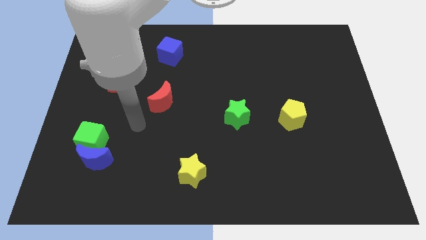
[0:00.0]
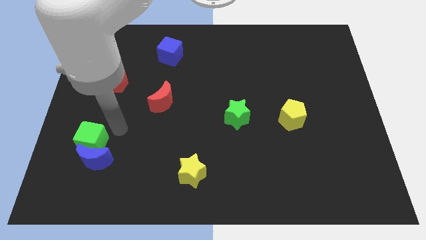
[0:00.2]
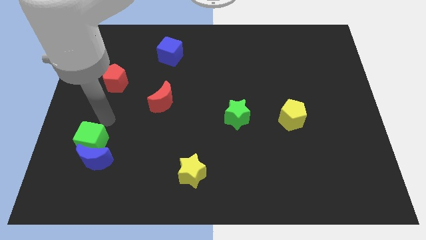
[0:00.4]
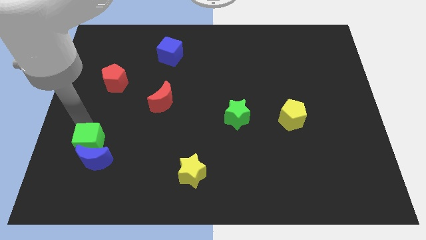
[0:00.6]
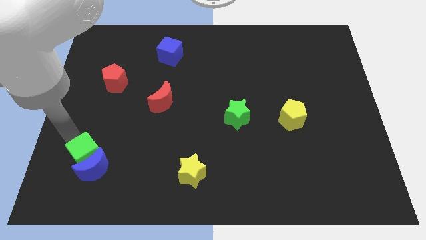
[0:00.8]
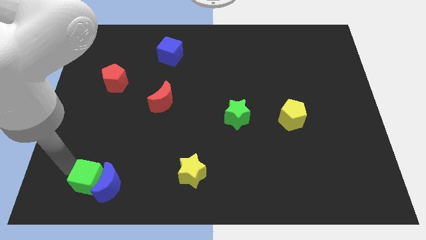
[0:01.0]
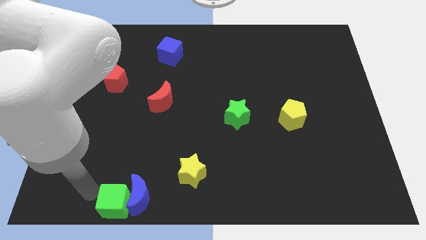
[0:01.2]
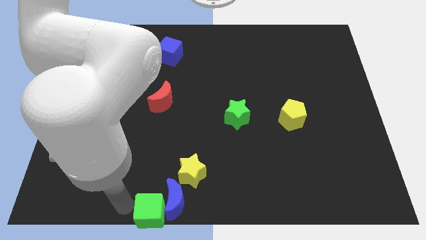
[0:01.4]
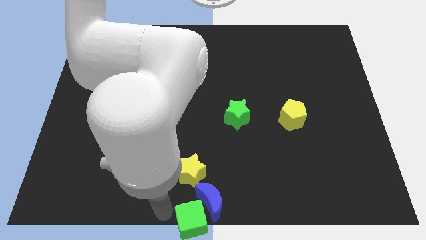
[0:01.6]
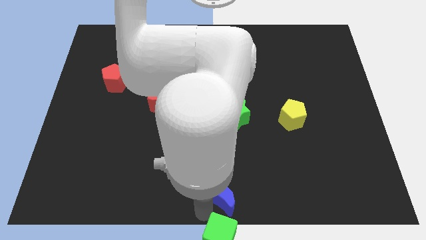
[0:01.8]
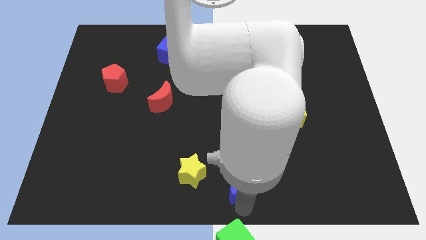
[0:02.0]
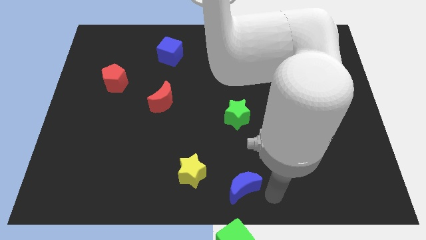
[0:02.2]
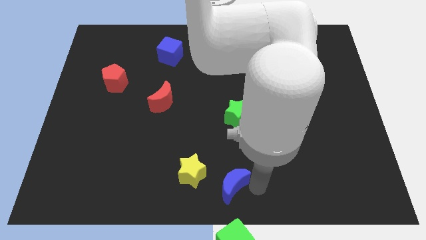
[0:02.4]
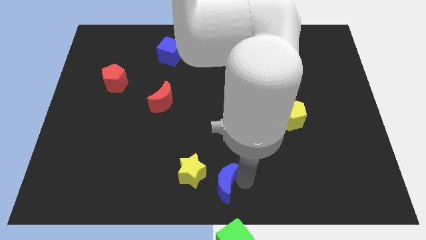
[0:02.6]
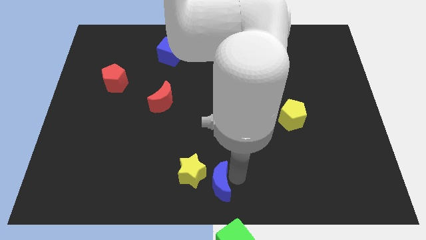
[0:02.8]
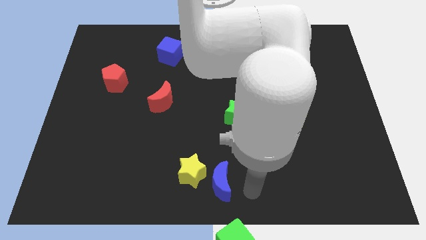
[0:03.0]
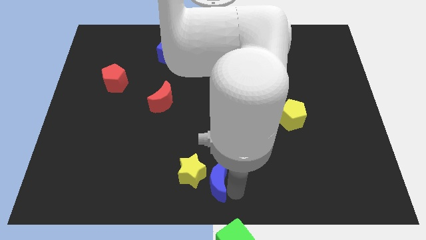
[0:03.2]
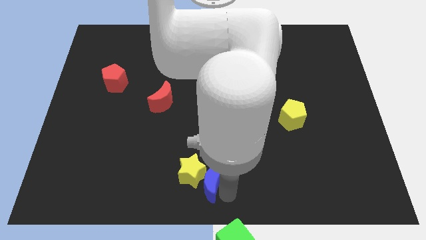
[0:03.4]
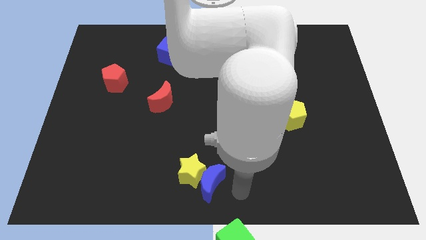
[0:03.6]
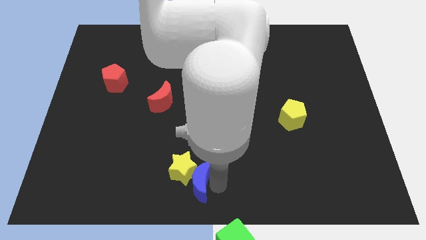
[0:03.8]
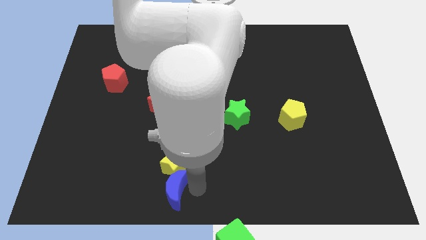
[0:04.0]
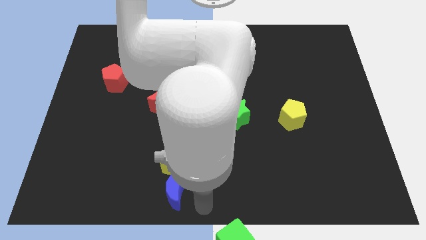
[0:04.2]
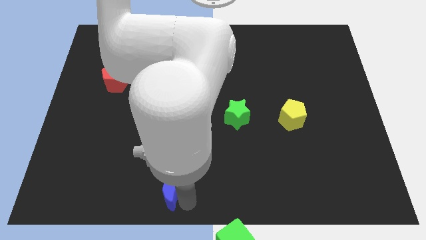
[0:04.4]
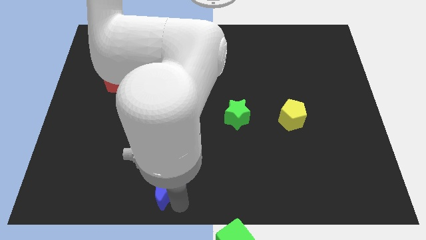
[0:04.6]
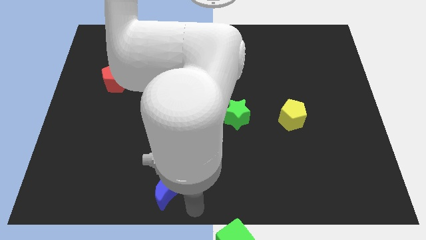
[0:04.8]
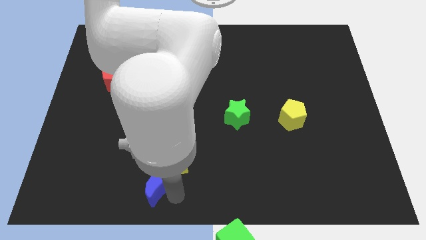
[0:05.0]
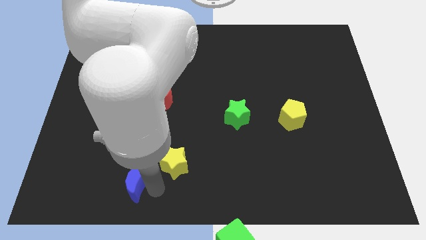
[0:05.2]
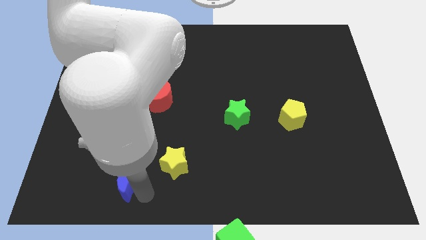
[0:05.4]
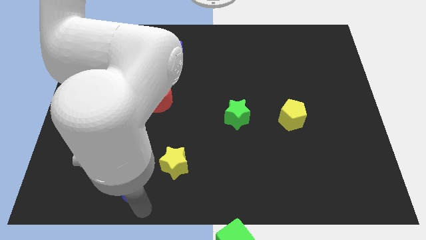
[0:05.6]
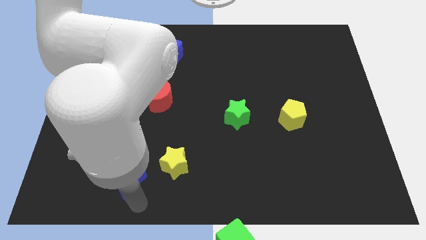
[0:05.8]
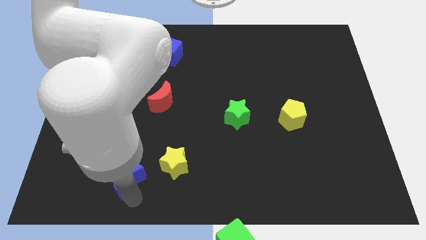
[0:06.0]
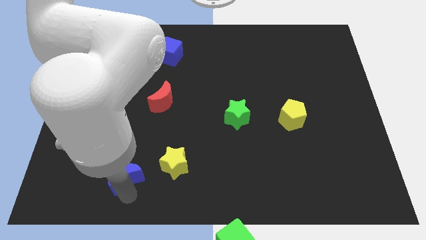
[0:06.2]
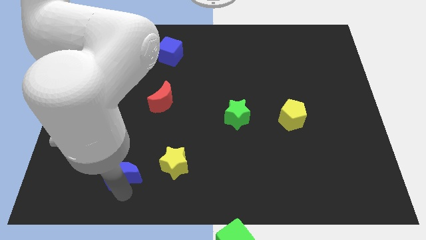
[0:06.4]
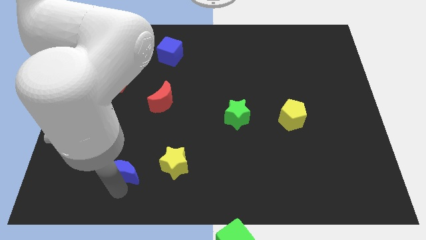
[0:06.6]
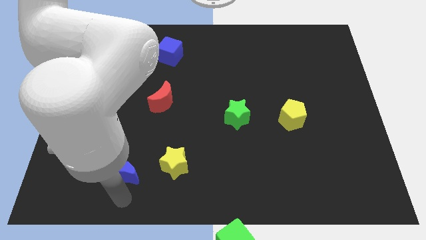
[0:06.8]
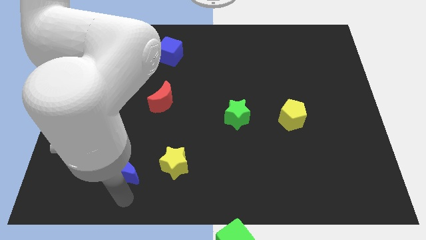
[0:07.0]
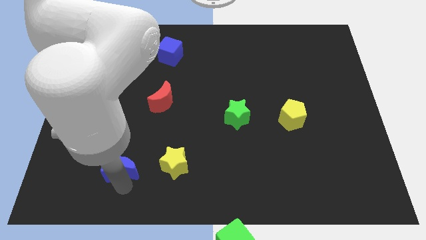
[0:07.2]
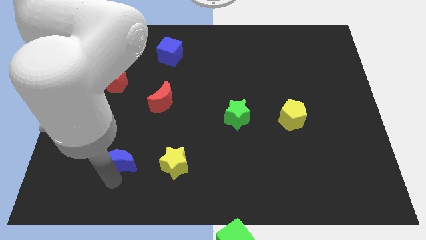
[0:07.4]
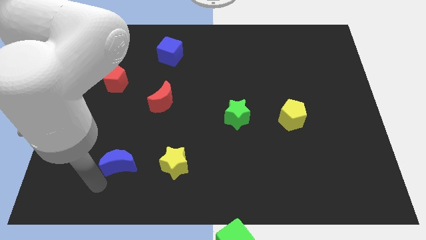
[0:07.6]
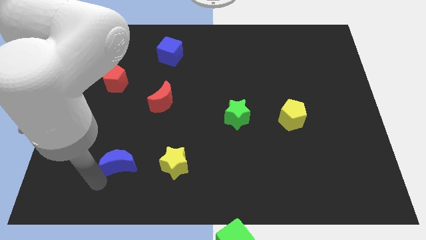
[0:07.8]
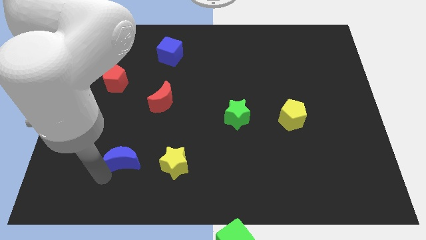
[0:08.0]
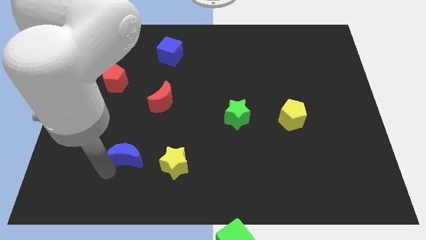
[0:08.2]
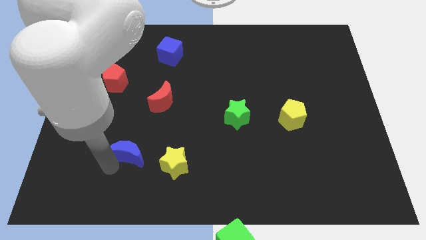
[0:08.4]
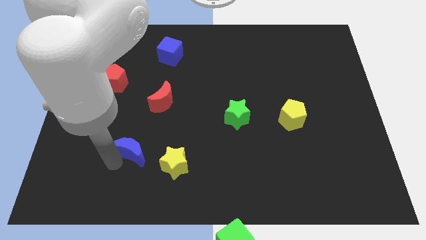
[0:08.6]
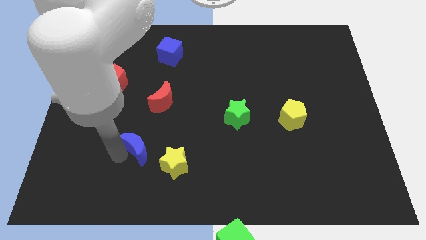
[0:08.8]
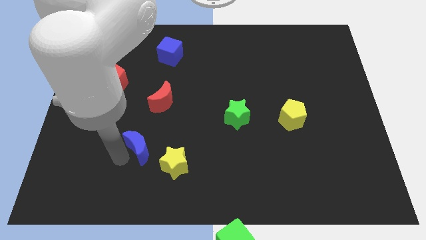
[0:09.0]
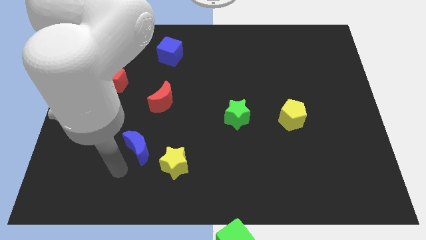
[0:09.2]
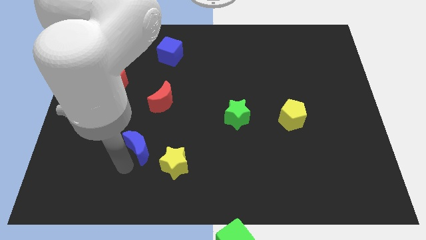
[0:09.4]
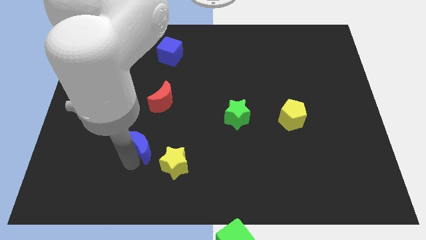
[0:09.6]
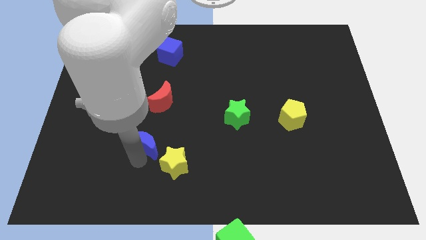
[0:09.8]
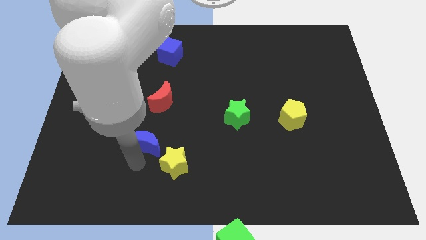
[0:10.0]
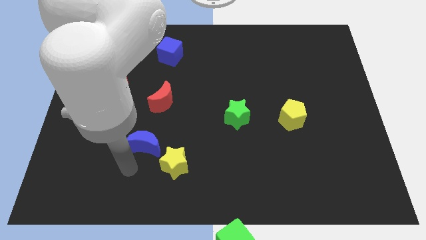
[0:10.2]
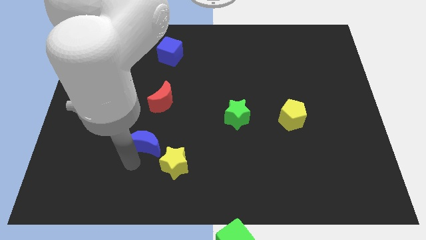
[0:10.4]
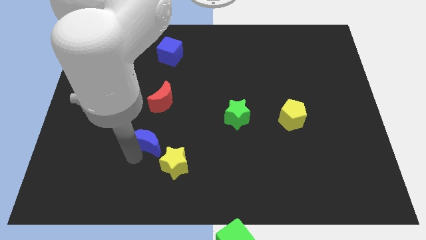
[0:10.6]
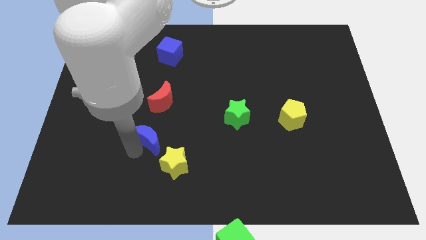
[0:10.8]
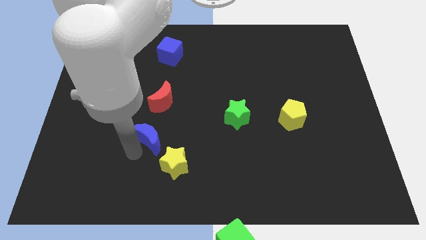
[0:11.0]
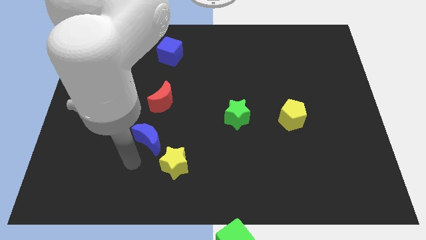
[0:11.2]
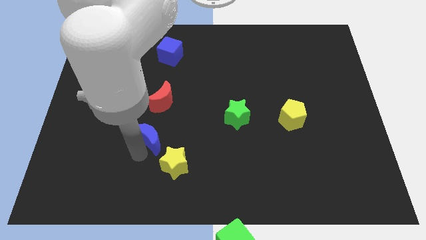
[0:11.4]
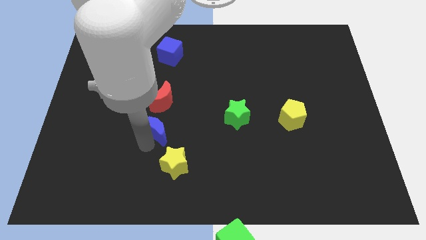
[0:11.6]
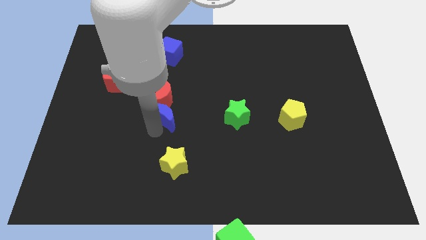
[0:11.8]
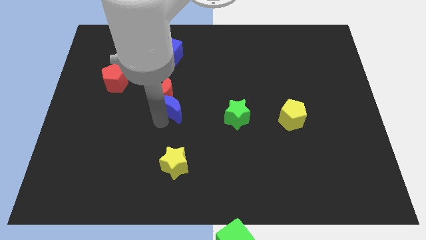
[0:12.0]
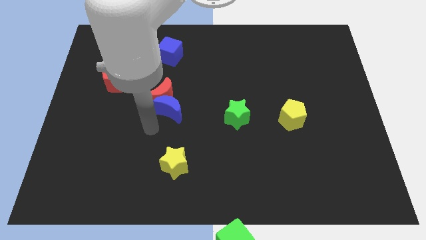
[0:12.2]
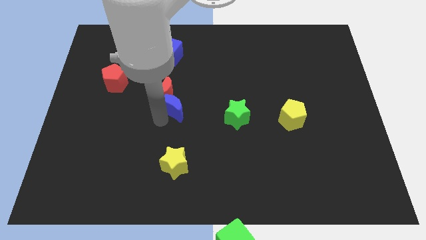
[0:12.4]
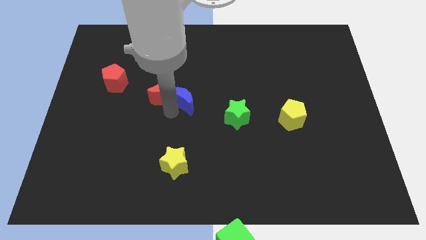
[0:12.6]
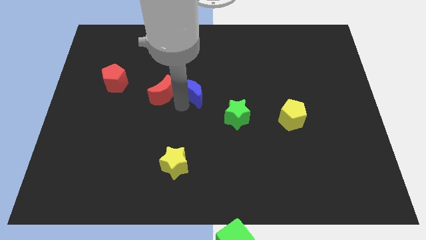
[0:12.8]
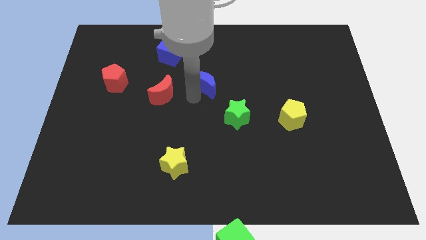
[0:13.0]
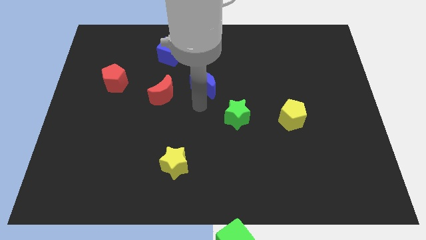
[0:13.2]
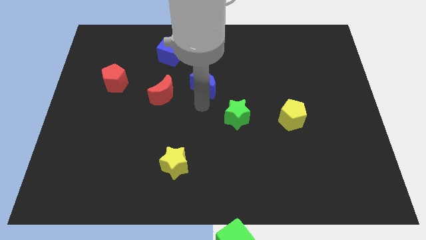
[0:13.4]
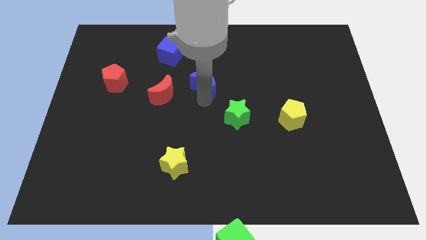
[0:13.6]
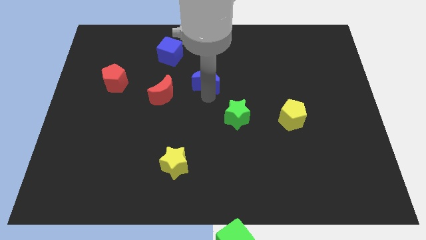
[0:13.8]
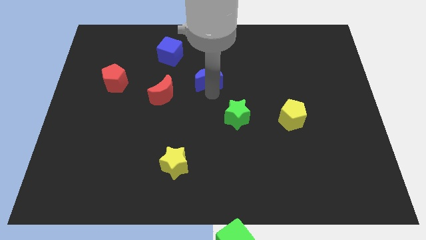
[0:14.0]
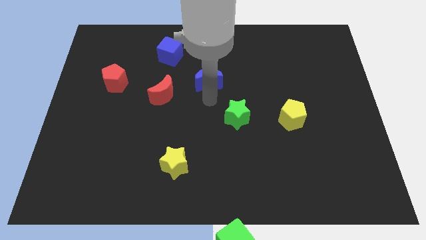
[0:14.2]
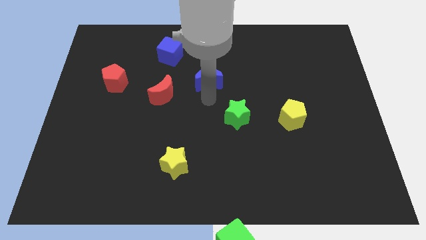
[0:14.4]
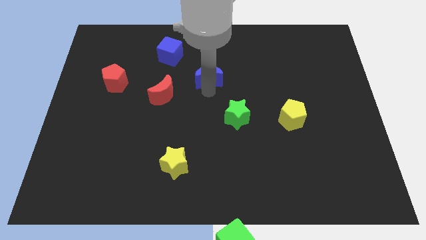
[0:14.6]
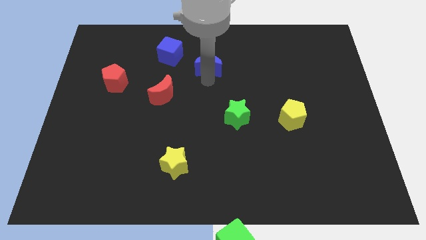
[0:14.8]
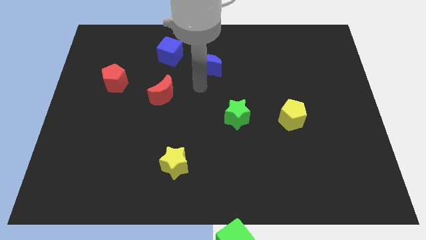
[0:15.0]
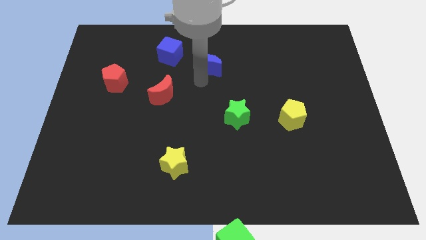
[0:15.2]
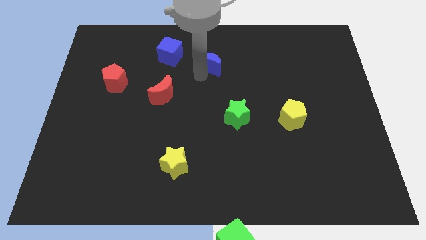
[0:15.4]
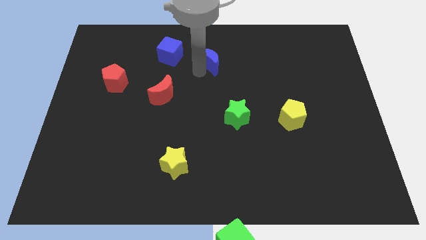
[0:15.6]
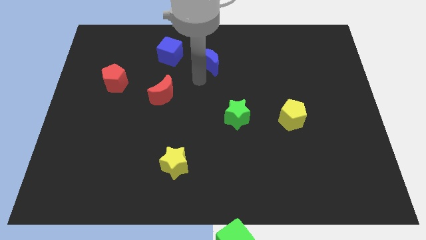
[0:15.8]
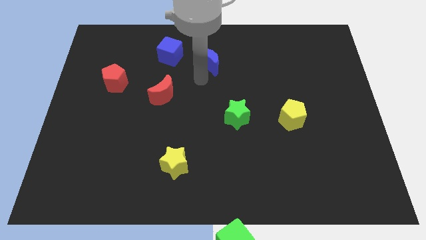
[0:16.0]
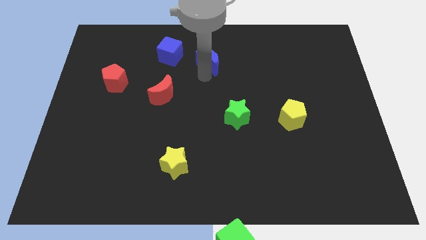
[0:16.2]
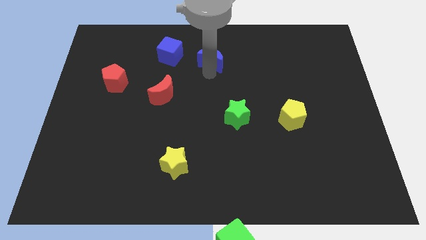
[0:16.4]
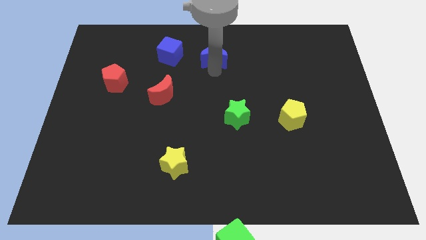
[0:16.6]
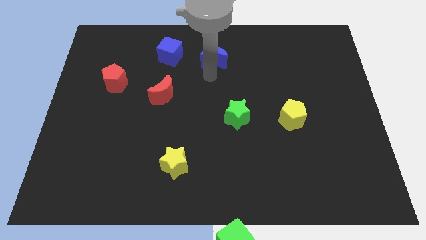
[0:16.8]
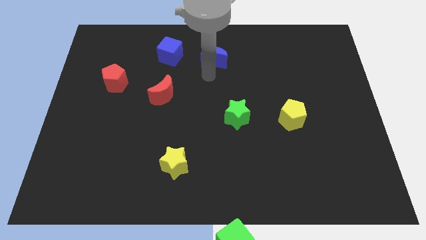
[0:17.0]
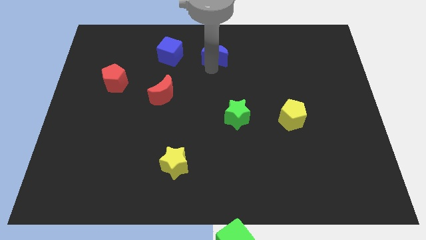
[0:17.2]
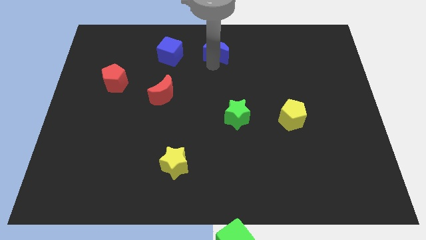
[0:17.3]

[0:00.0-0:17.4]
move the blue moon to the top
